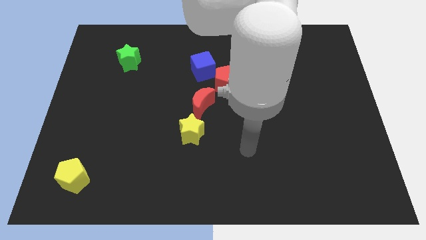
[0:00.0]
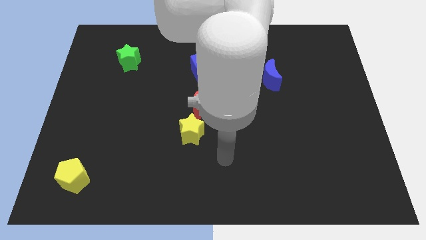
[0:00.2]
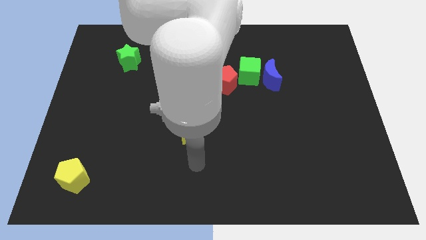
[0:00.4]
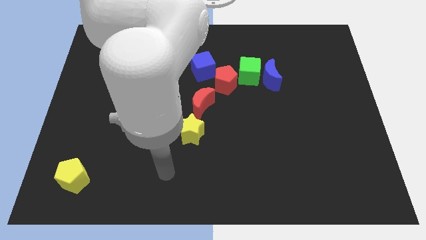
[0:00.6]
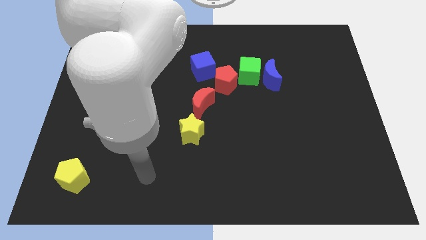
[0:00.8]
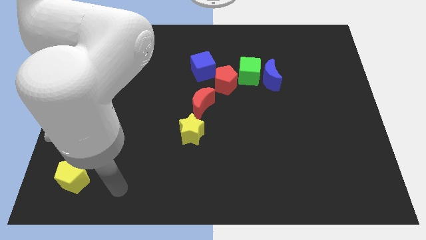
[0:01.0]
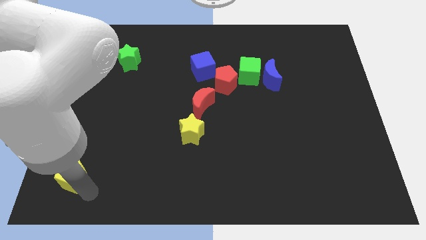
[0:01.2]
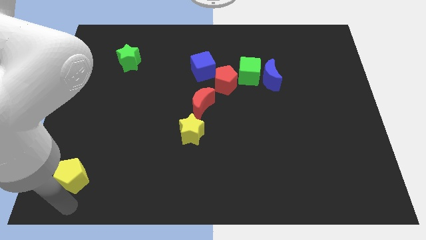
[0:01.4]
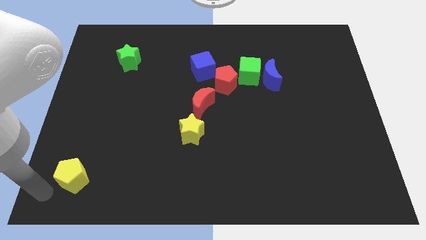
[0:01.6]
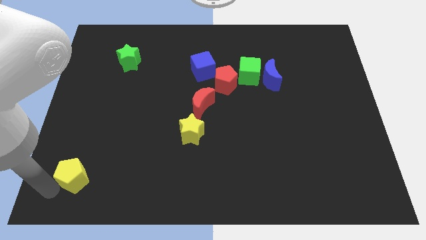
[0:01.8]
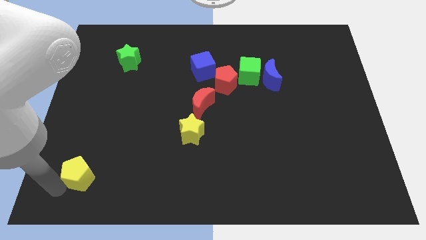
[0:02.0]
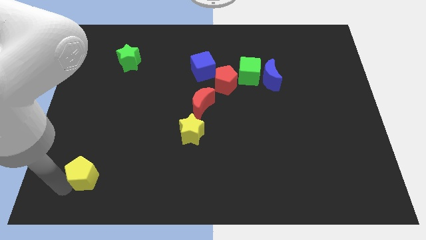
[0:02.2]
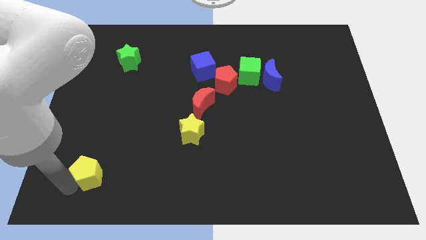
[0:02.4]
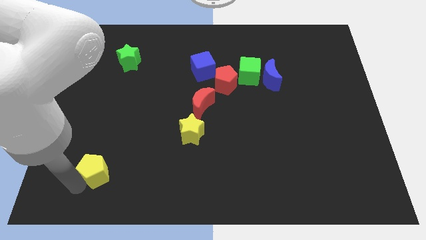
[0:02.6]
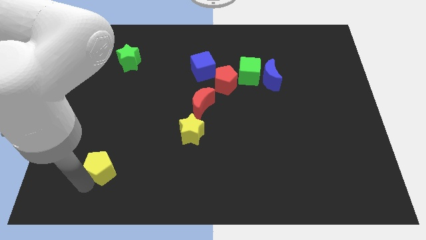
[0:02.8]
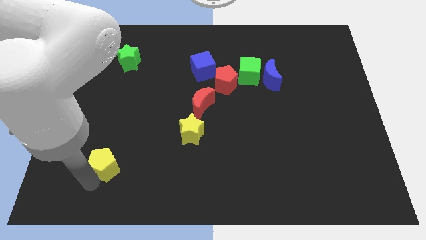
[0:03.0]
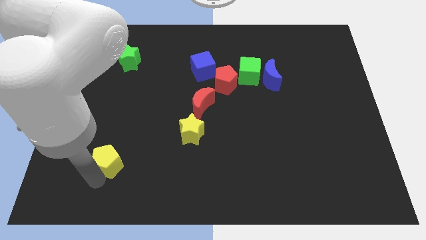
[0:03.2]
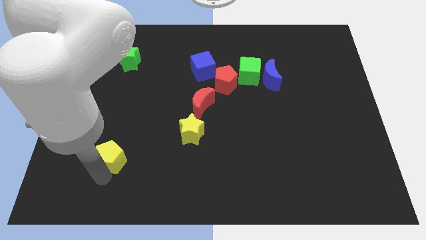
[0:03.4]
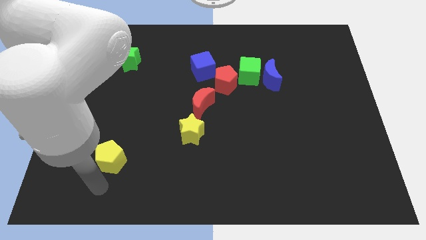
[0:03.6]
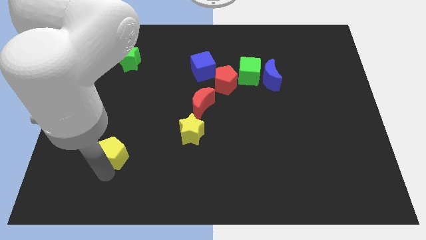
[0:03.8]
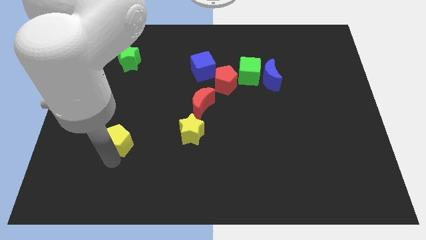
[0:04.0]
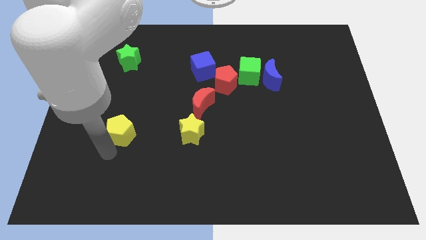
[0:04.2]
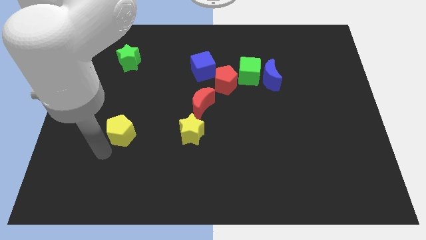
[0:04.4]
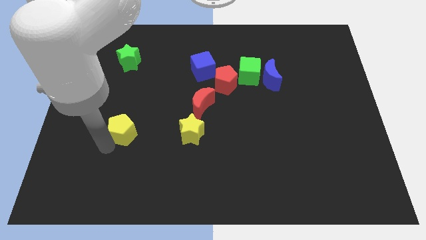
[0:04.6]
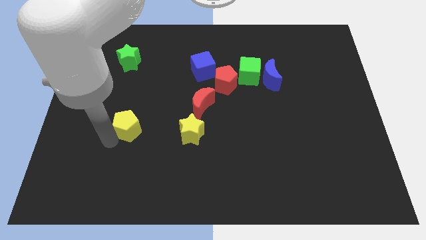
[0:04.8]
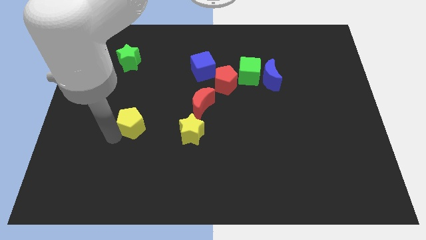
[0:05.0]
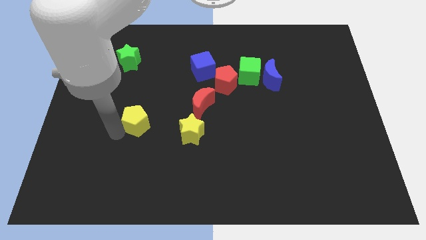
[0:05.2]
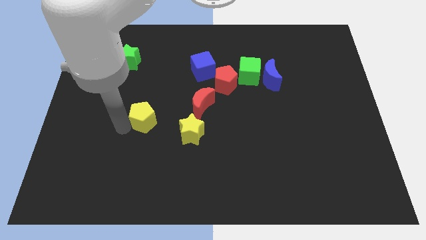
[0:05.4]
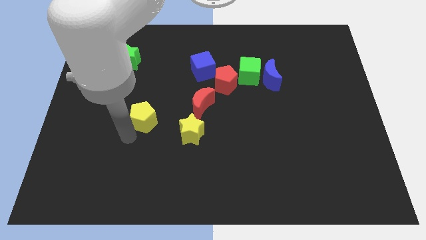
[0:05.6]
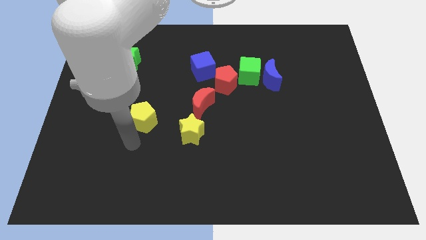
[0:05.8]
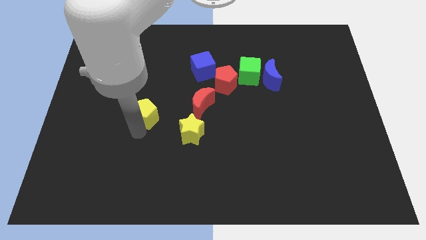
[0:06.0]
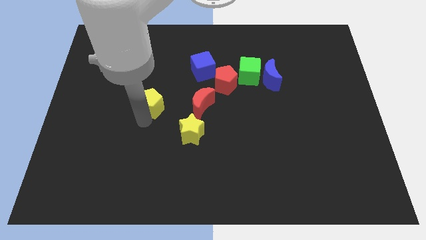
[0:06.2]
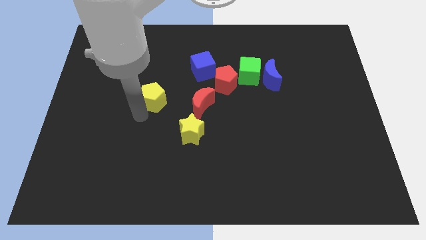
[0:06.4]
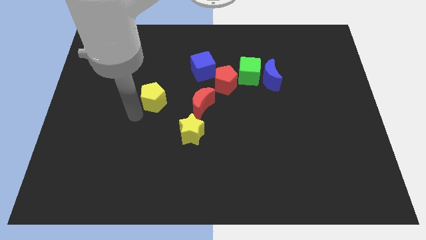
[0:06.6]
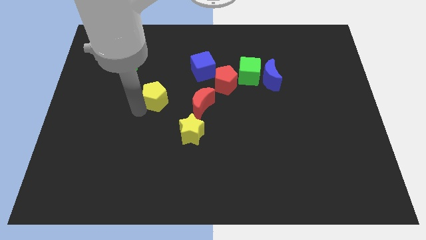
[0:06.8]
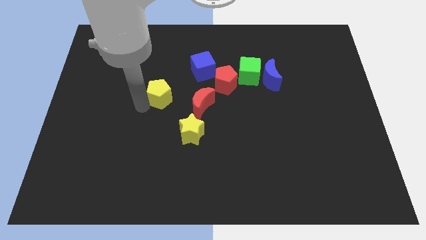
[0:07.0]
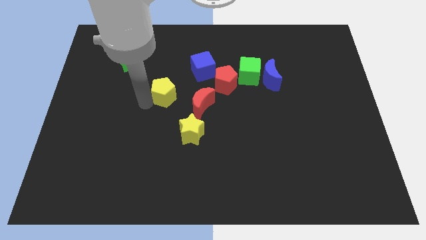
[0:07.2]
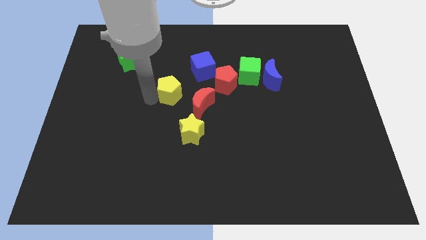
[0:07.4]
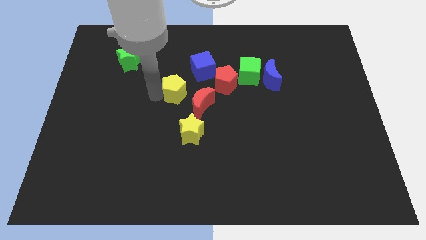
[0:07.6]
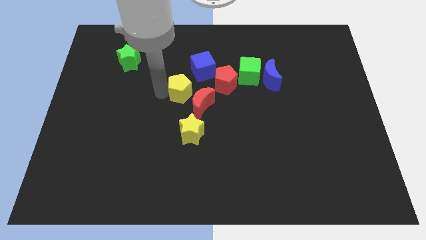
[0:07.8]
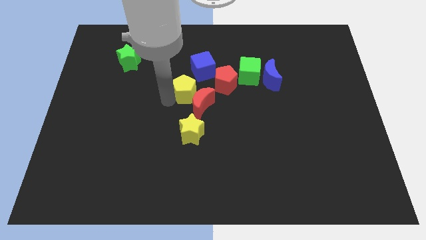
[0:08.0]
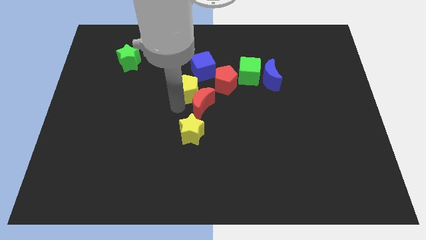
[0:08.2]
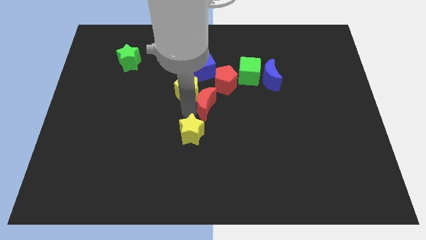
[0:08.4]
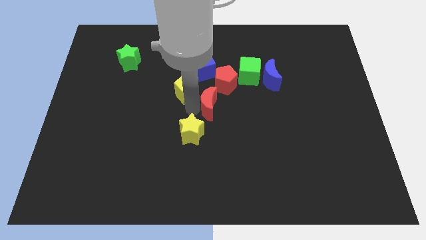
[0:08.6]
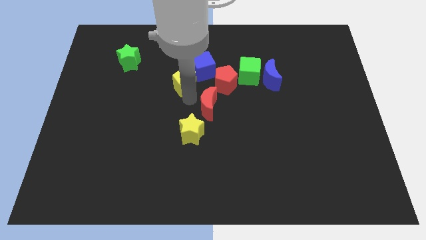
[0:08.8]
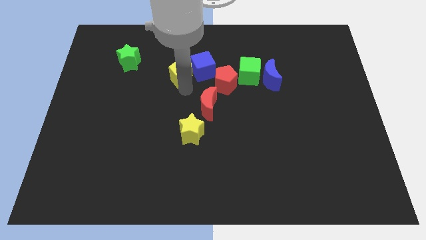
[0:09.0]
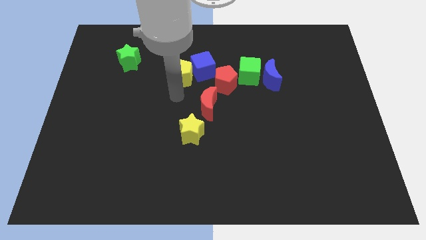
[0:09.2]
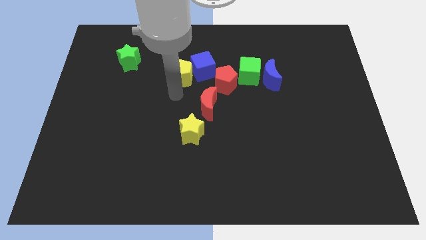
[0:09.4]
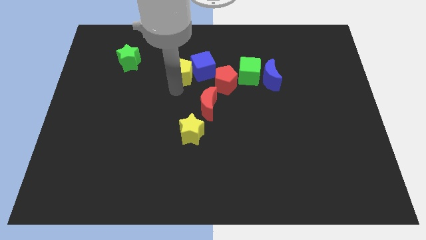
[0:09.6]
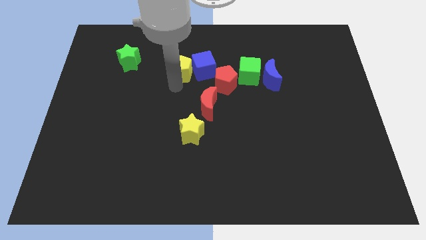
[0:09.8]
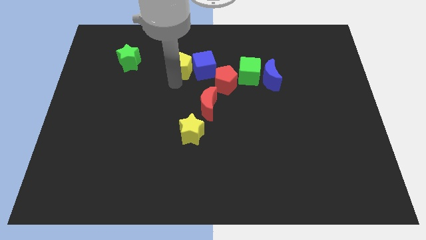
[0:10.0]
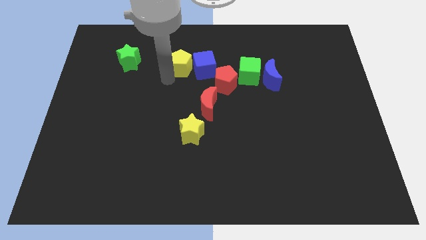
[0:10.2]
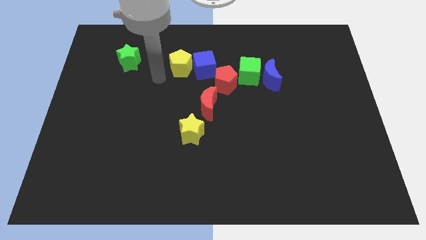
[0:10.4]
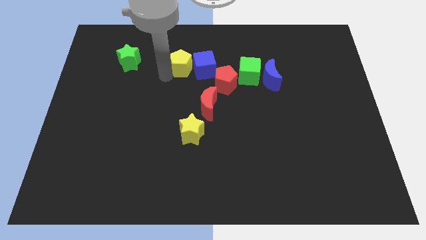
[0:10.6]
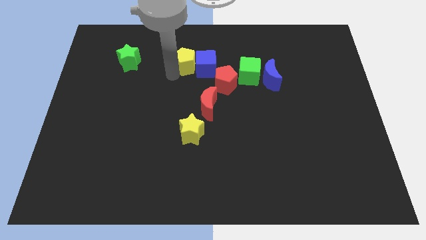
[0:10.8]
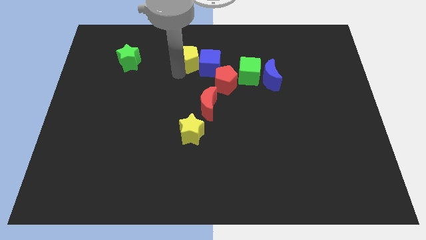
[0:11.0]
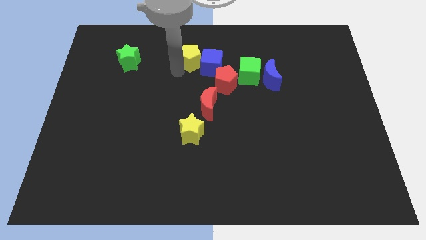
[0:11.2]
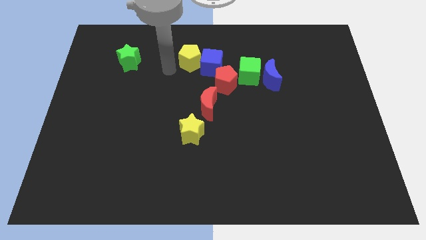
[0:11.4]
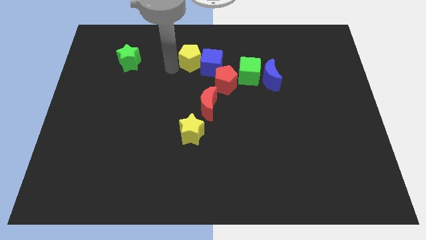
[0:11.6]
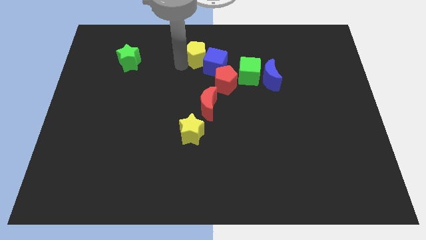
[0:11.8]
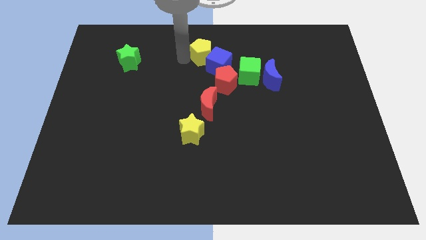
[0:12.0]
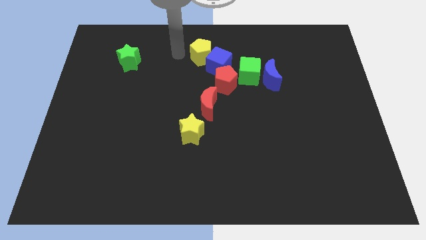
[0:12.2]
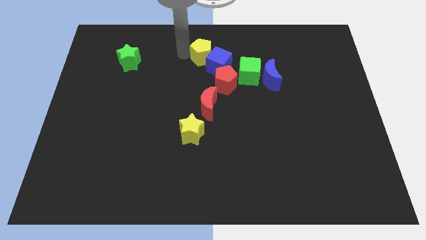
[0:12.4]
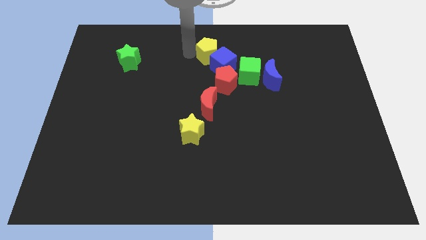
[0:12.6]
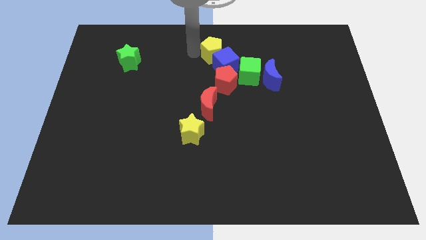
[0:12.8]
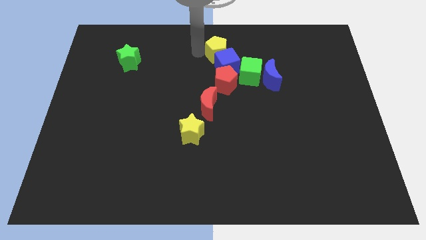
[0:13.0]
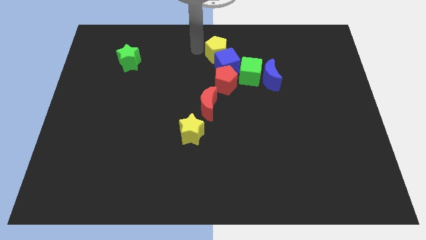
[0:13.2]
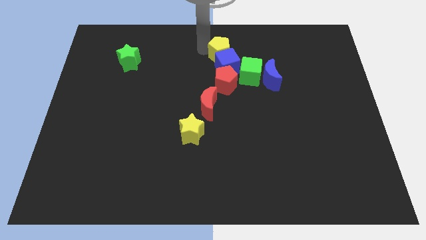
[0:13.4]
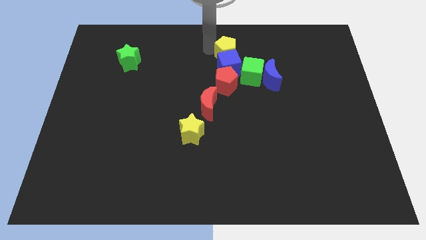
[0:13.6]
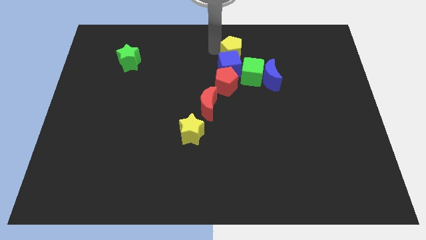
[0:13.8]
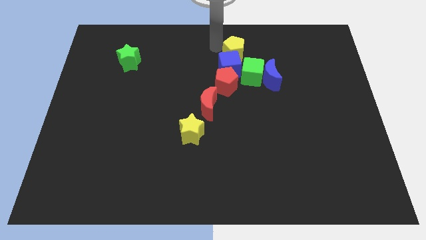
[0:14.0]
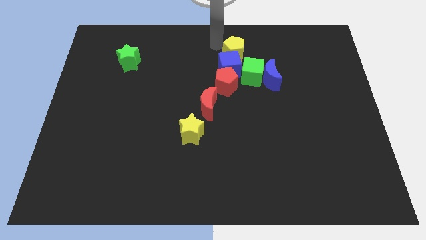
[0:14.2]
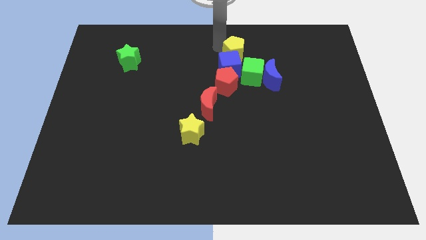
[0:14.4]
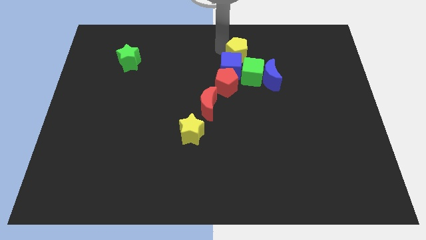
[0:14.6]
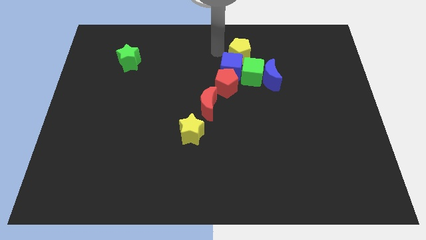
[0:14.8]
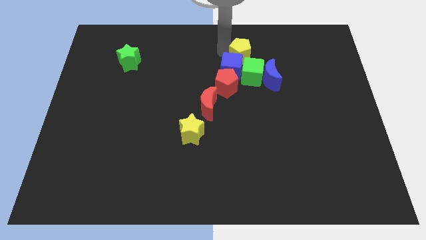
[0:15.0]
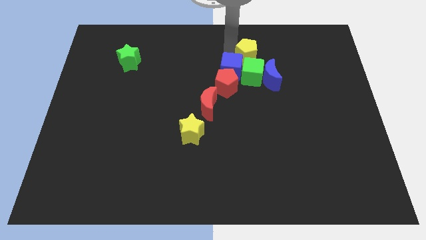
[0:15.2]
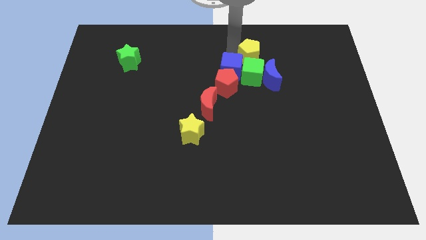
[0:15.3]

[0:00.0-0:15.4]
push the yellow pentagon to the top right side of the green cube
